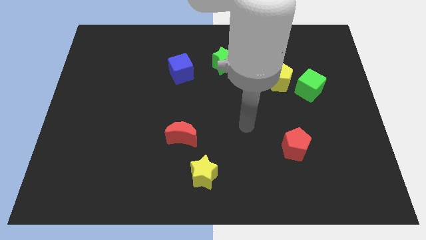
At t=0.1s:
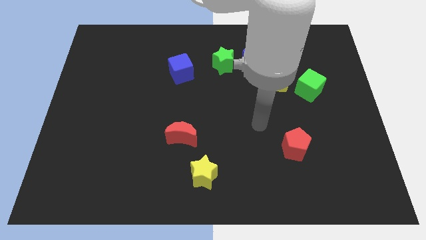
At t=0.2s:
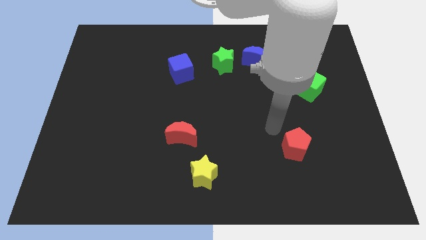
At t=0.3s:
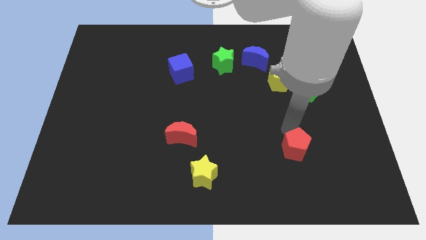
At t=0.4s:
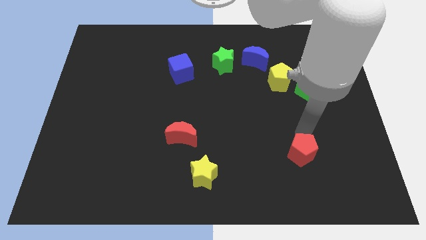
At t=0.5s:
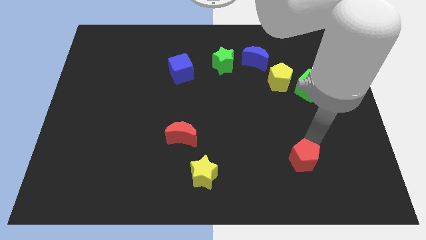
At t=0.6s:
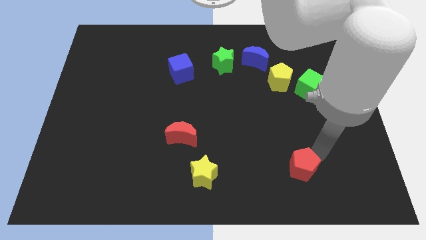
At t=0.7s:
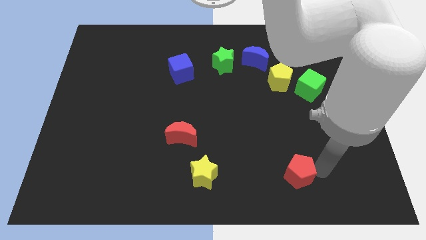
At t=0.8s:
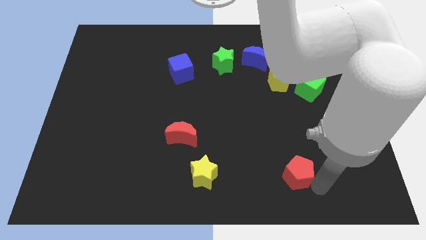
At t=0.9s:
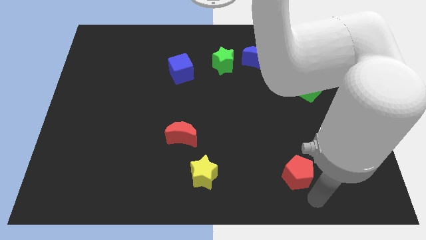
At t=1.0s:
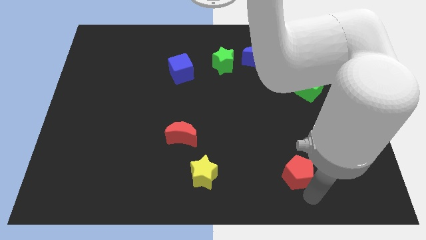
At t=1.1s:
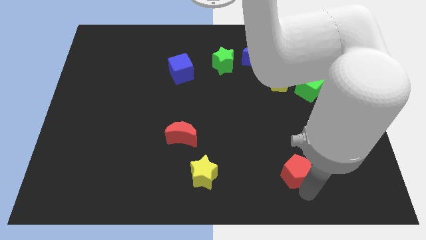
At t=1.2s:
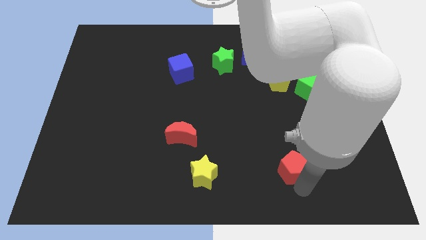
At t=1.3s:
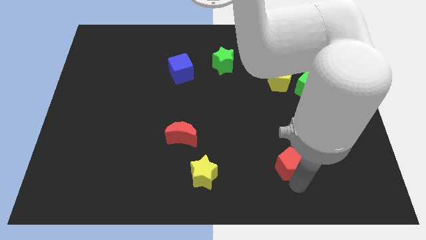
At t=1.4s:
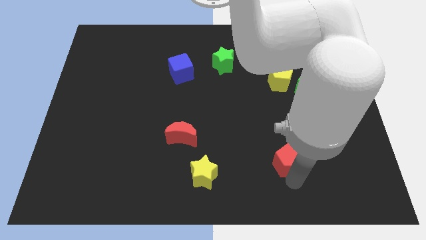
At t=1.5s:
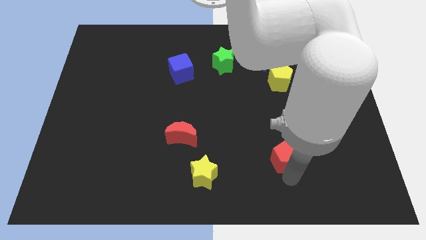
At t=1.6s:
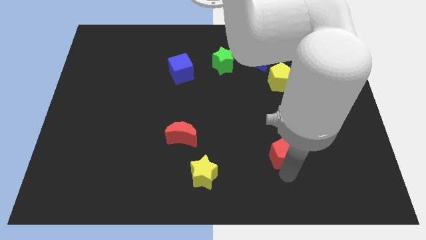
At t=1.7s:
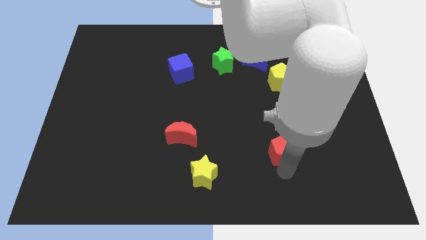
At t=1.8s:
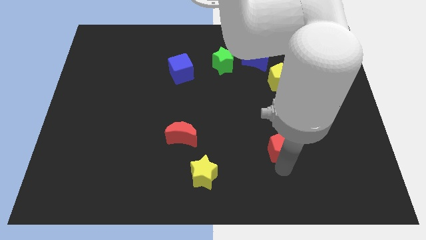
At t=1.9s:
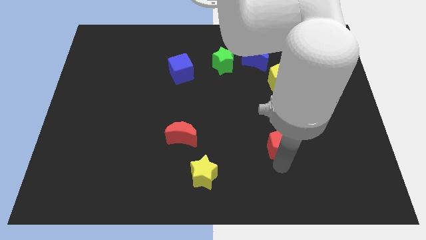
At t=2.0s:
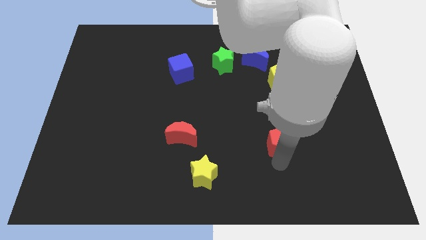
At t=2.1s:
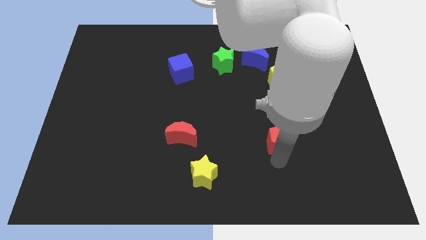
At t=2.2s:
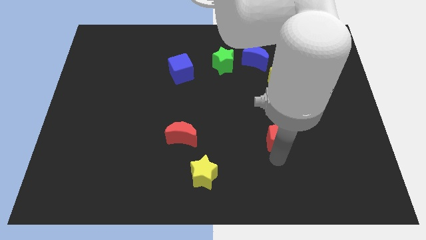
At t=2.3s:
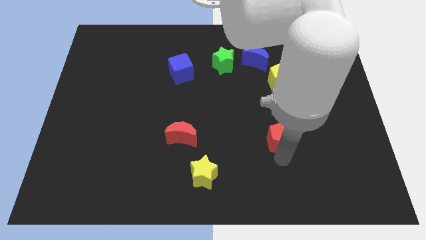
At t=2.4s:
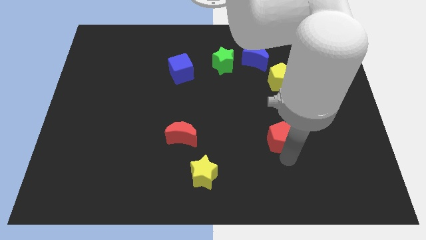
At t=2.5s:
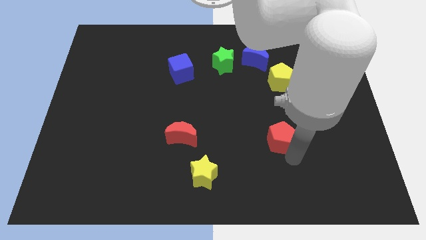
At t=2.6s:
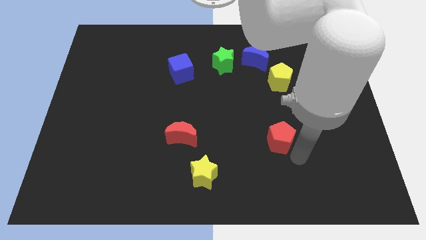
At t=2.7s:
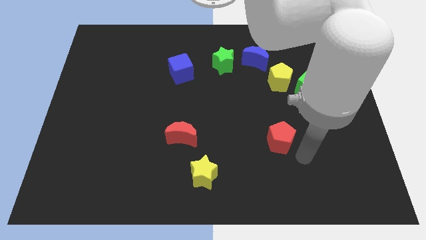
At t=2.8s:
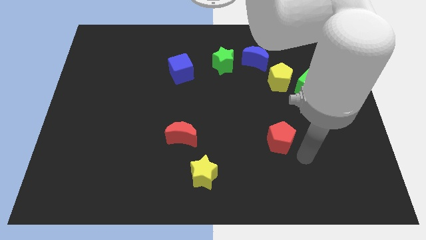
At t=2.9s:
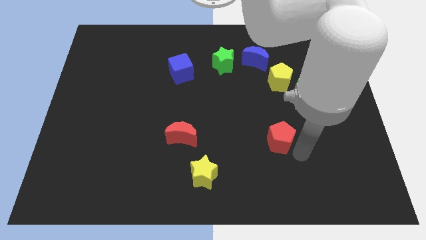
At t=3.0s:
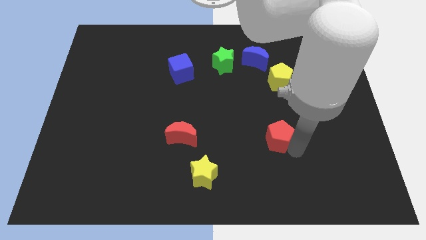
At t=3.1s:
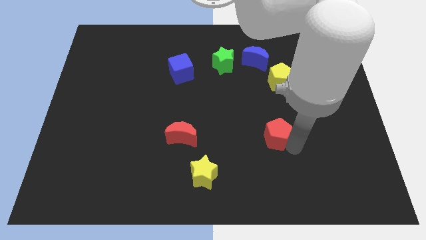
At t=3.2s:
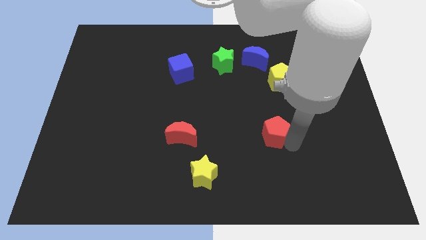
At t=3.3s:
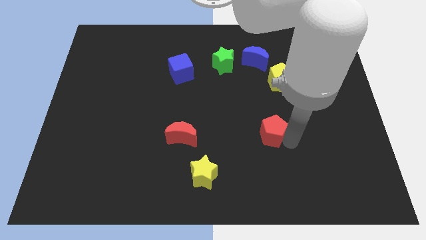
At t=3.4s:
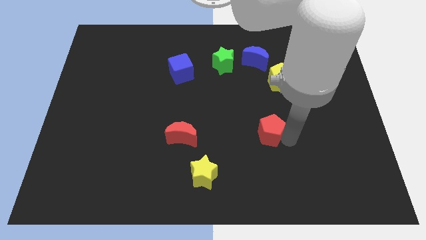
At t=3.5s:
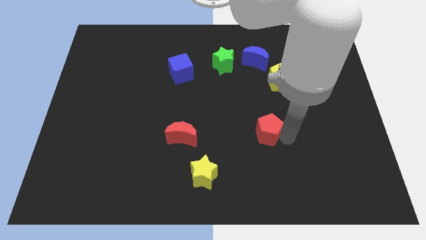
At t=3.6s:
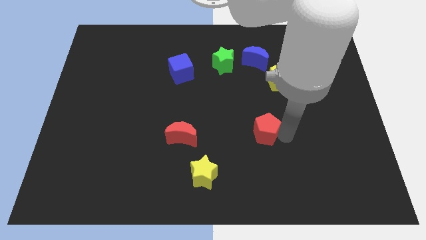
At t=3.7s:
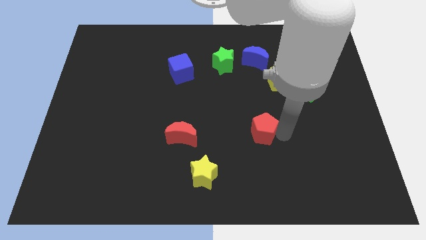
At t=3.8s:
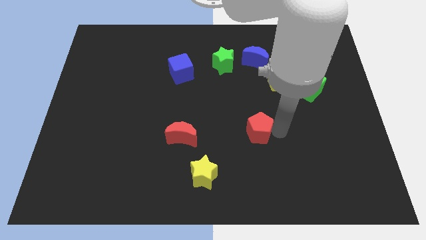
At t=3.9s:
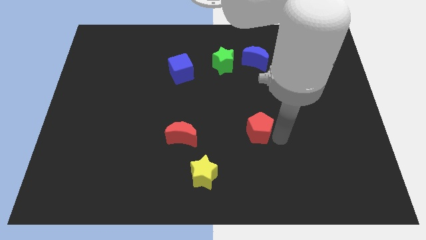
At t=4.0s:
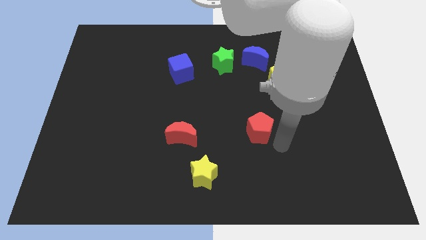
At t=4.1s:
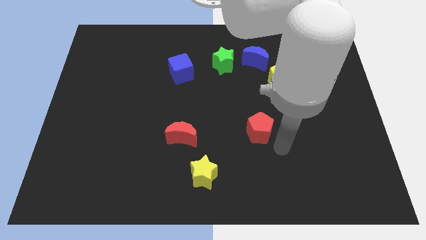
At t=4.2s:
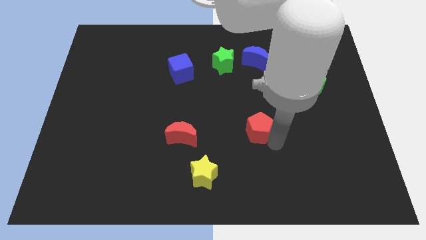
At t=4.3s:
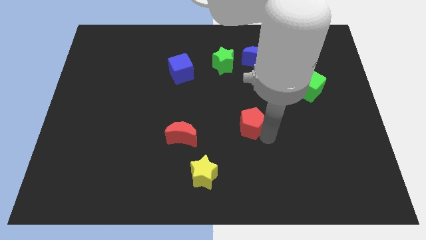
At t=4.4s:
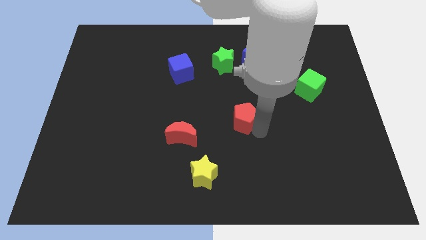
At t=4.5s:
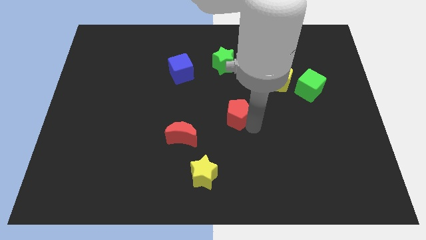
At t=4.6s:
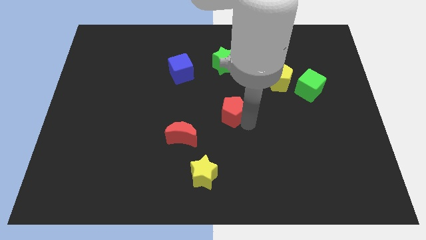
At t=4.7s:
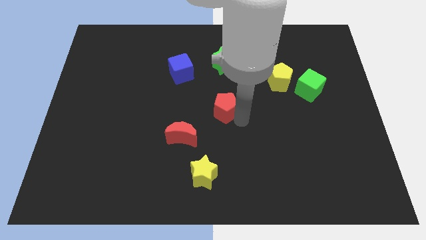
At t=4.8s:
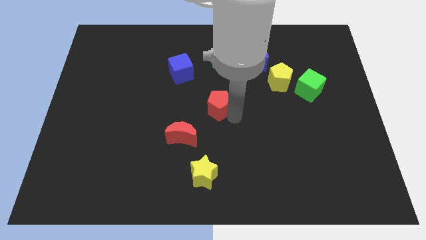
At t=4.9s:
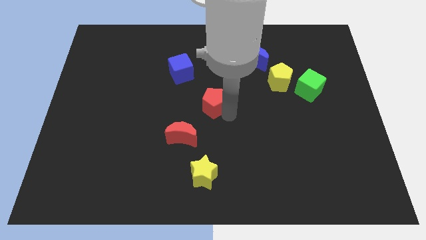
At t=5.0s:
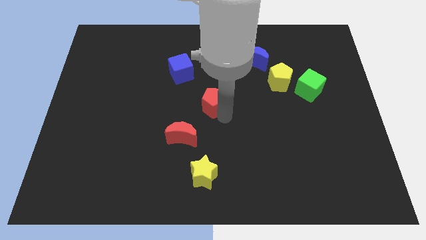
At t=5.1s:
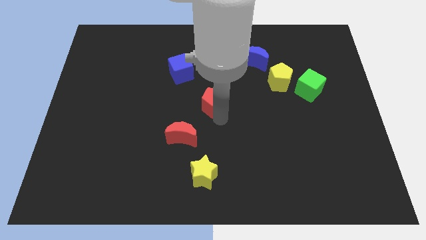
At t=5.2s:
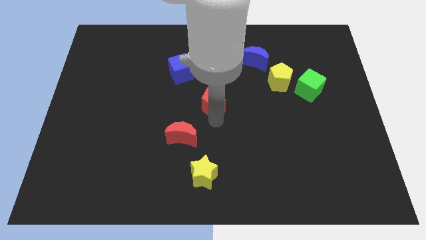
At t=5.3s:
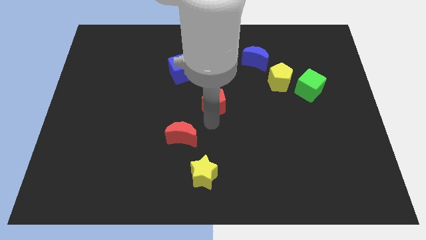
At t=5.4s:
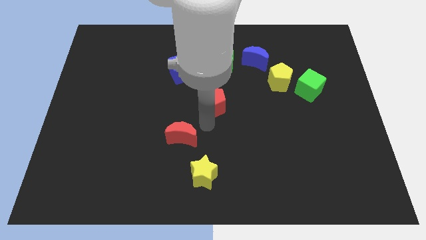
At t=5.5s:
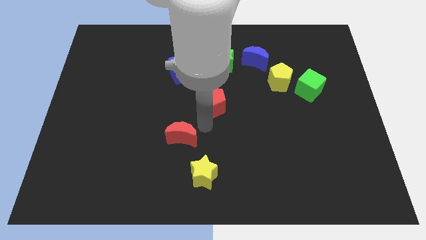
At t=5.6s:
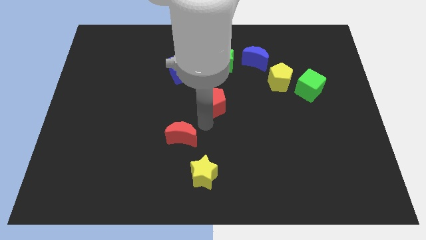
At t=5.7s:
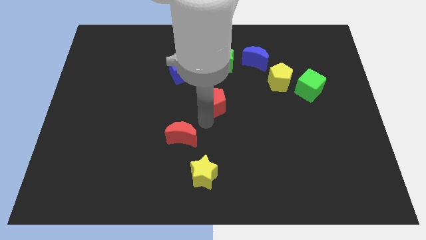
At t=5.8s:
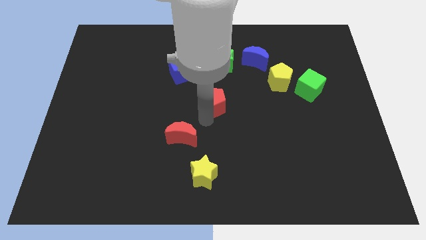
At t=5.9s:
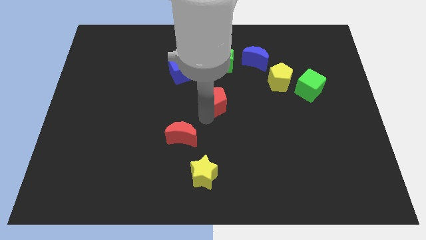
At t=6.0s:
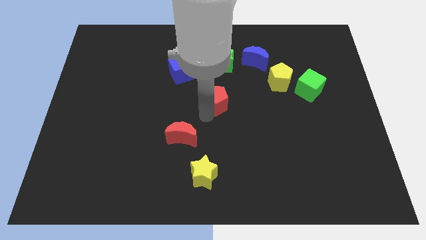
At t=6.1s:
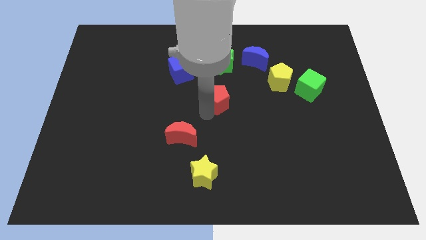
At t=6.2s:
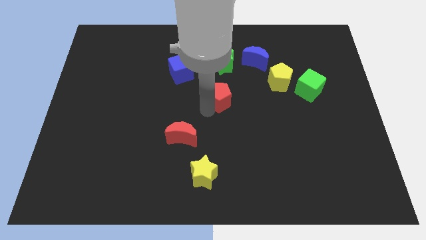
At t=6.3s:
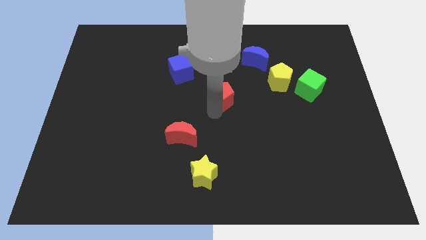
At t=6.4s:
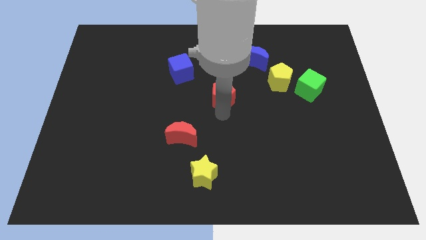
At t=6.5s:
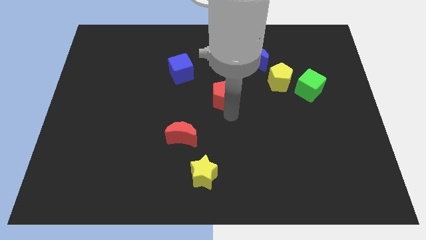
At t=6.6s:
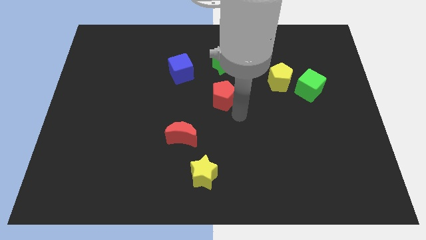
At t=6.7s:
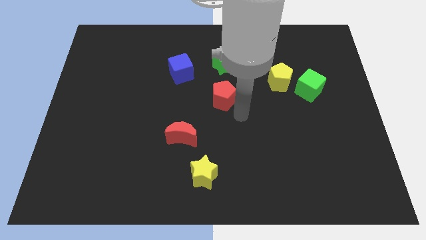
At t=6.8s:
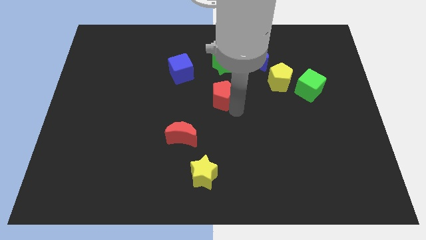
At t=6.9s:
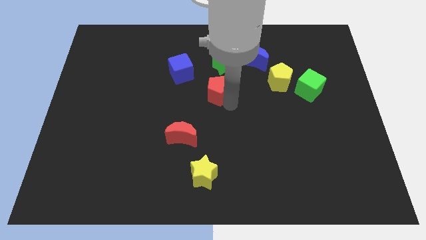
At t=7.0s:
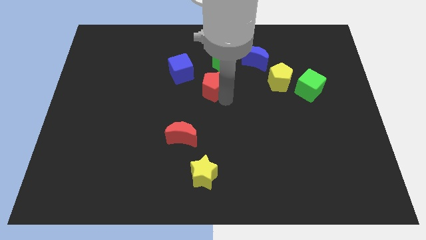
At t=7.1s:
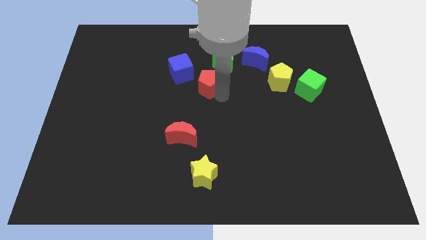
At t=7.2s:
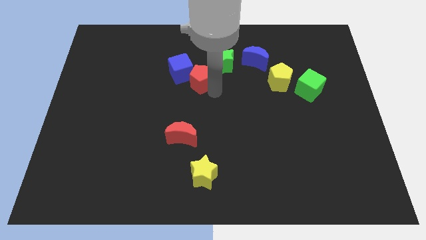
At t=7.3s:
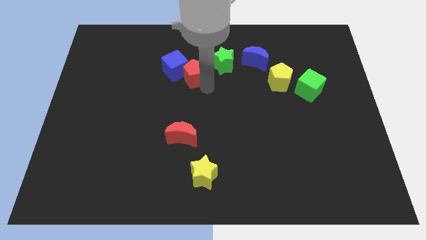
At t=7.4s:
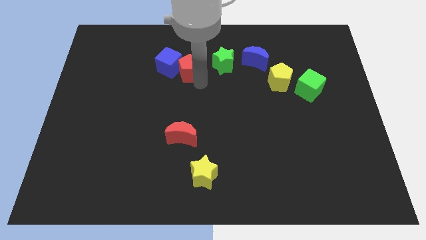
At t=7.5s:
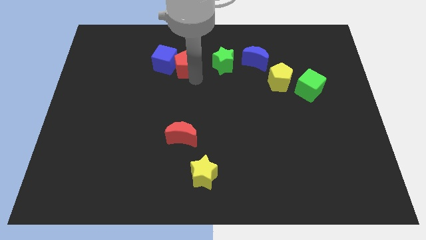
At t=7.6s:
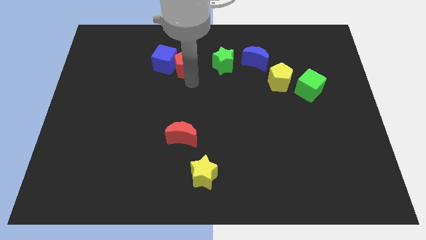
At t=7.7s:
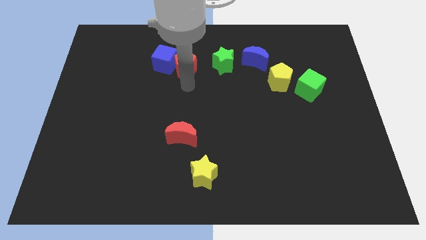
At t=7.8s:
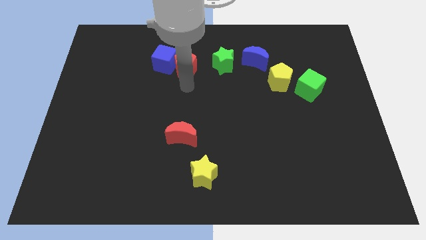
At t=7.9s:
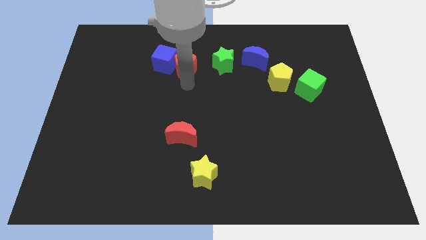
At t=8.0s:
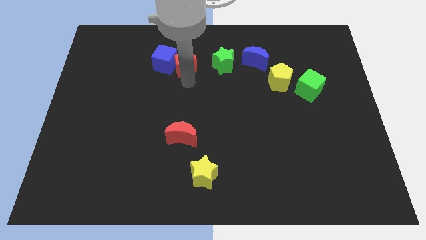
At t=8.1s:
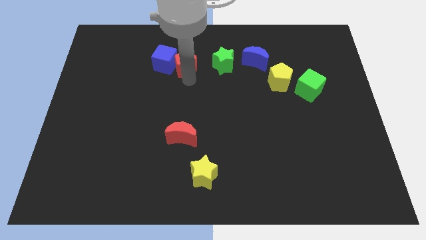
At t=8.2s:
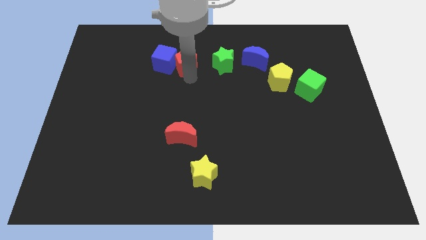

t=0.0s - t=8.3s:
push the red pentagon diagonally up and to the right of the blue cube
